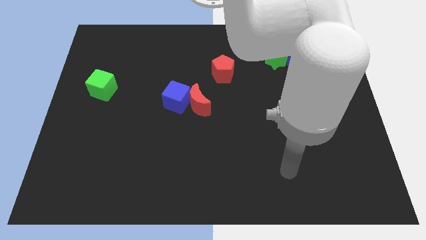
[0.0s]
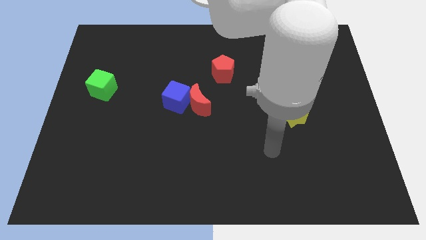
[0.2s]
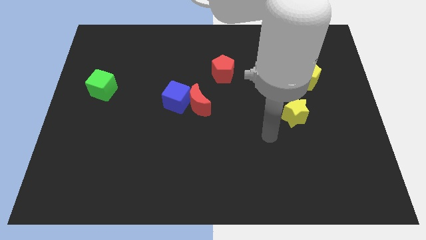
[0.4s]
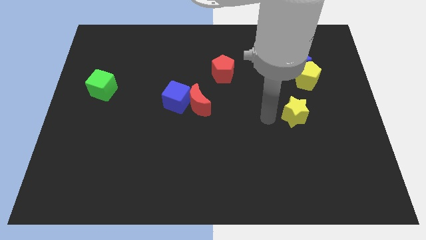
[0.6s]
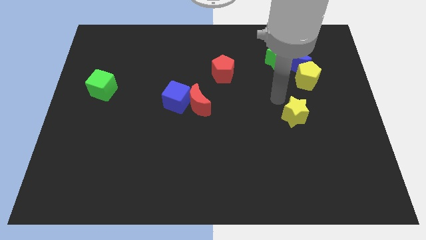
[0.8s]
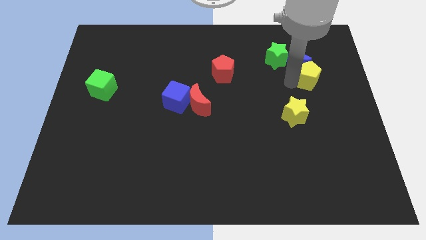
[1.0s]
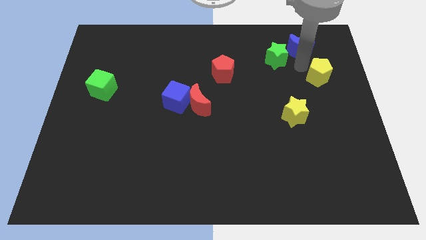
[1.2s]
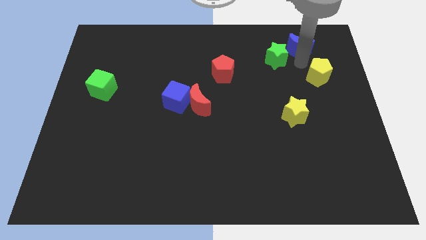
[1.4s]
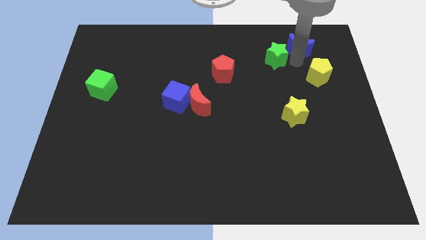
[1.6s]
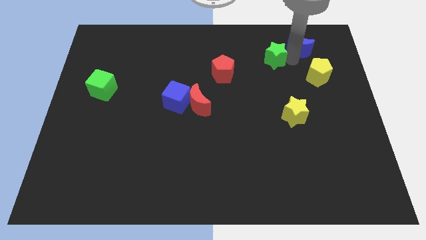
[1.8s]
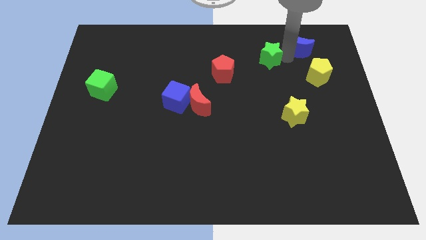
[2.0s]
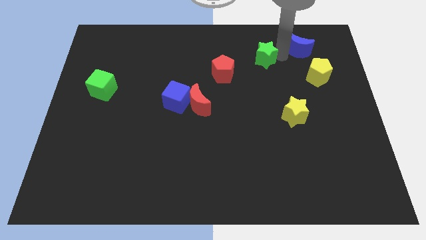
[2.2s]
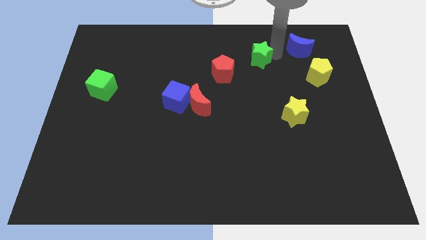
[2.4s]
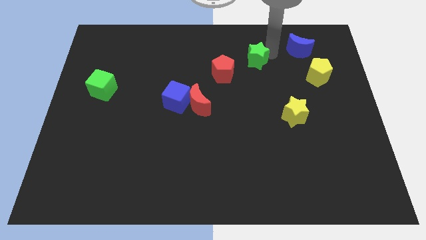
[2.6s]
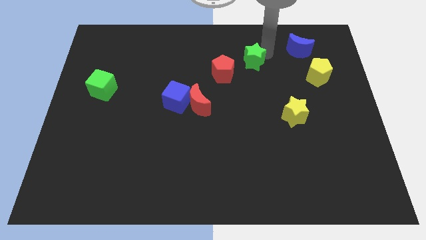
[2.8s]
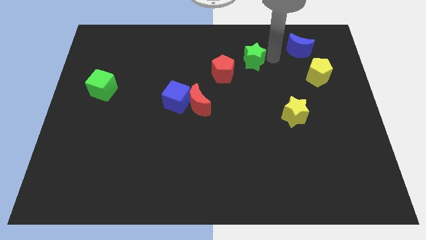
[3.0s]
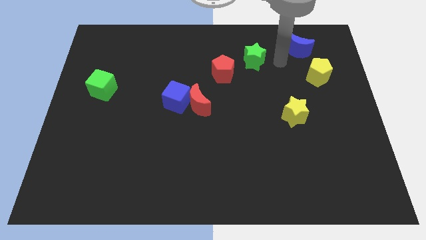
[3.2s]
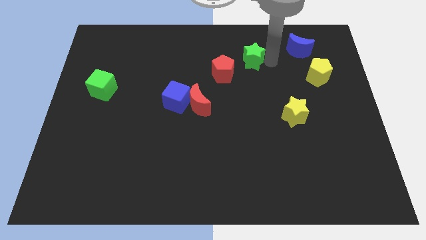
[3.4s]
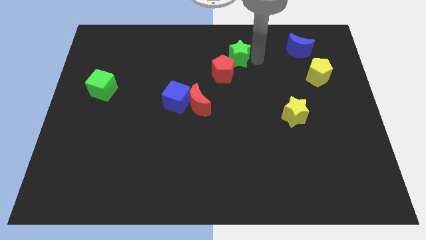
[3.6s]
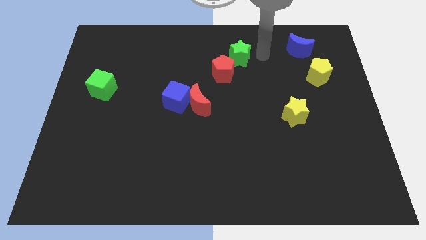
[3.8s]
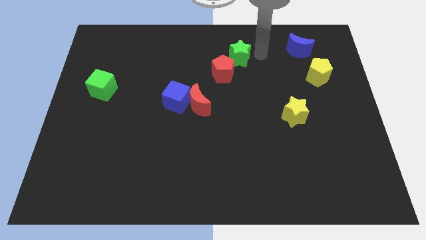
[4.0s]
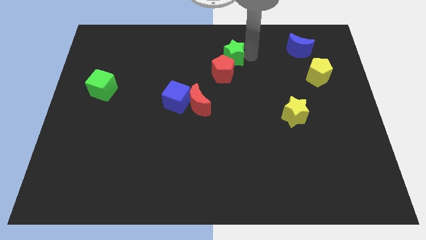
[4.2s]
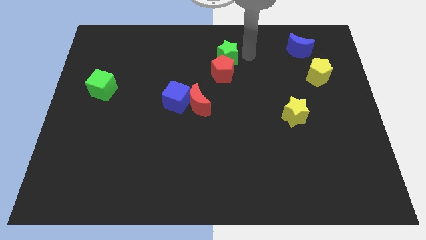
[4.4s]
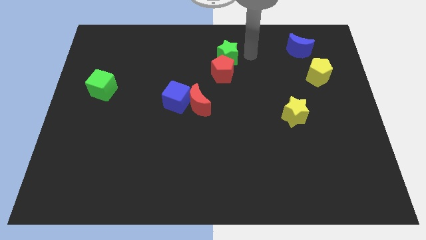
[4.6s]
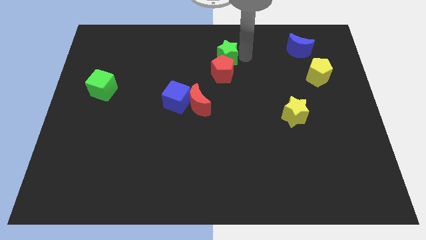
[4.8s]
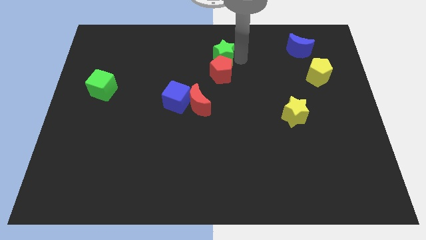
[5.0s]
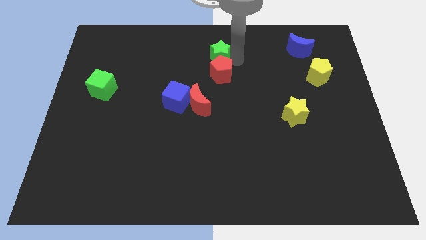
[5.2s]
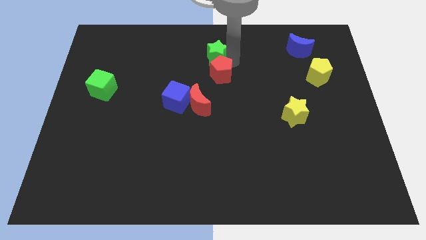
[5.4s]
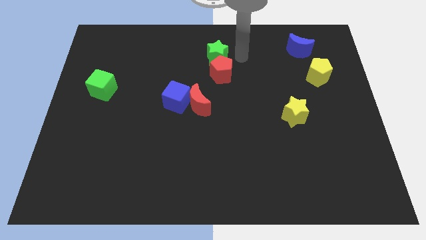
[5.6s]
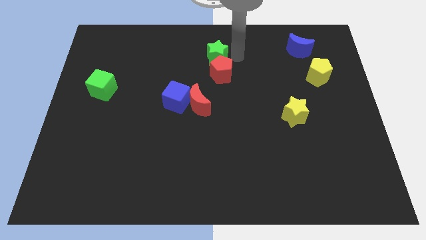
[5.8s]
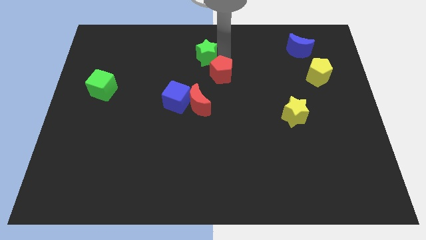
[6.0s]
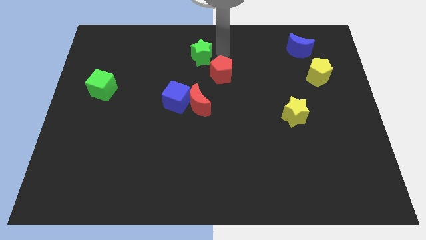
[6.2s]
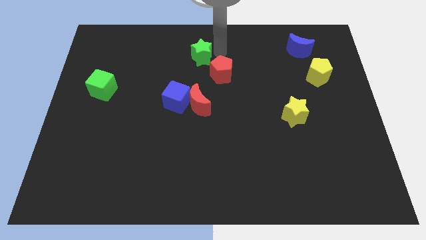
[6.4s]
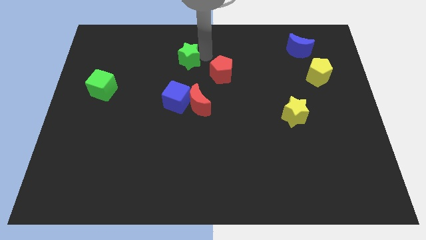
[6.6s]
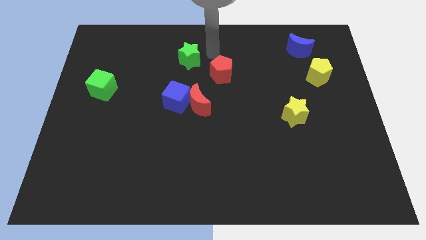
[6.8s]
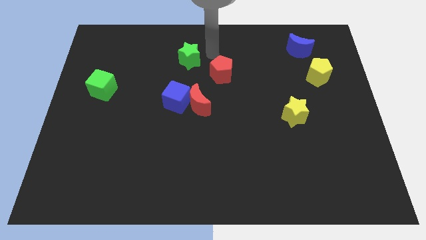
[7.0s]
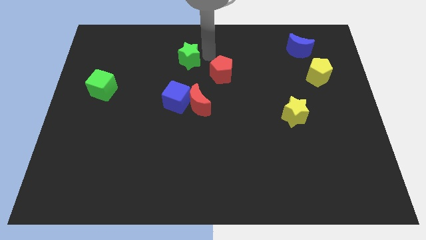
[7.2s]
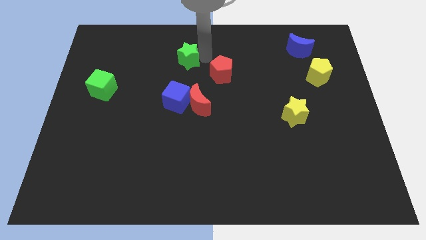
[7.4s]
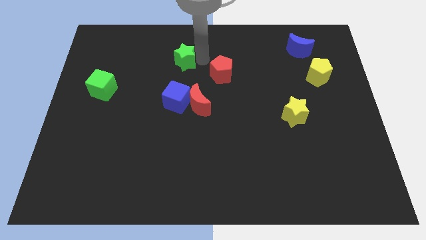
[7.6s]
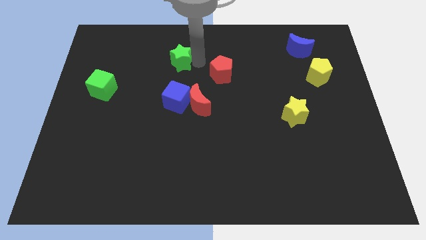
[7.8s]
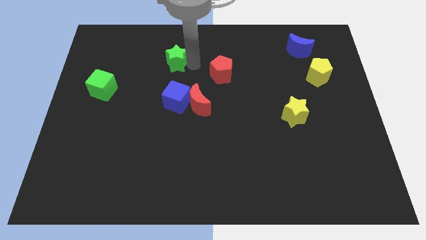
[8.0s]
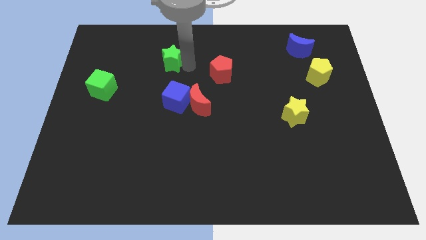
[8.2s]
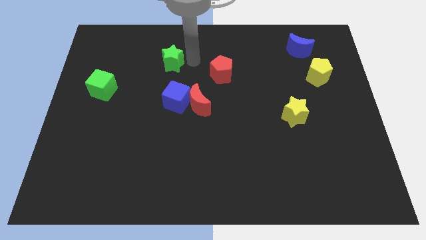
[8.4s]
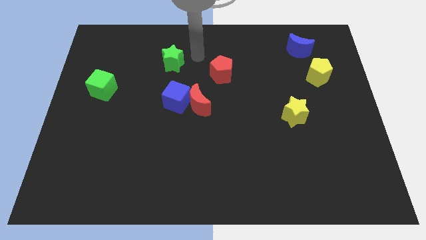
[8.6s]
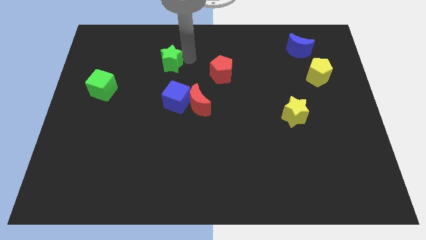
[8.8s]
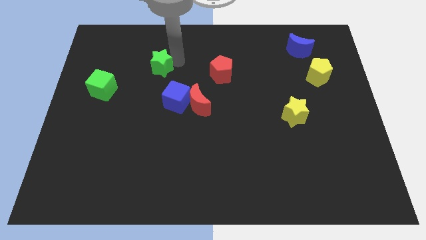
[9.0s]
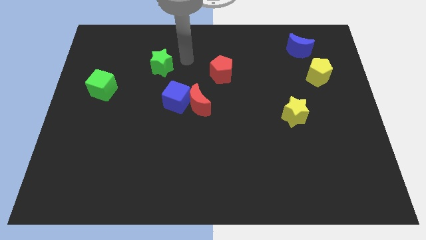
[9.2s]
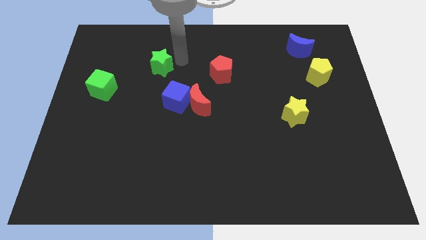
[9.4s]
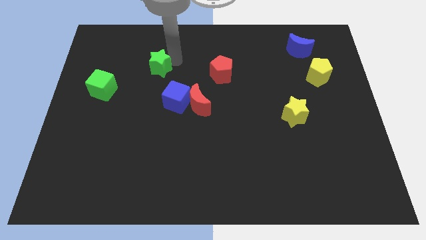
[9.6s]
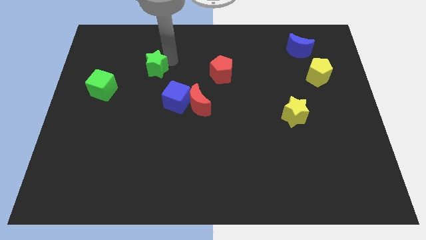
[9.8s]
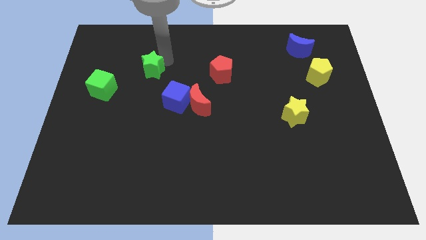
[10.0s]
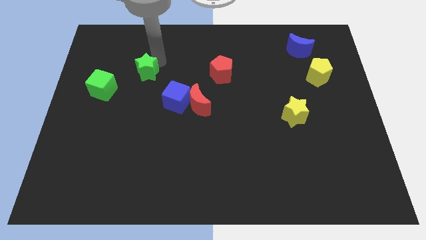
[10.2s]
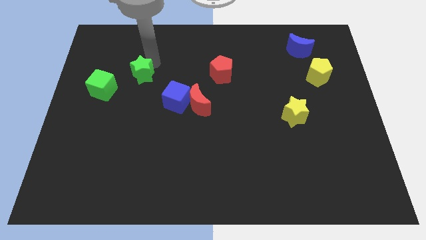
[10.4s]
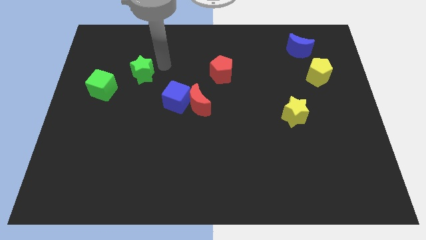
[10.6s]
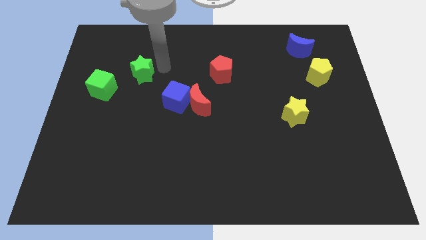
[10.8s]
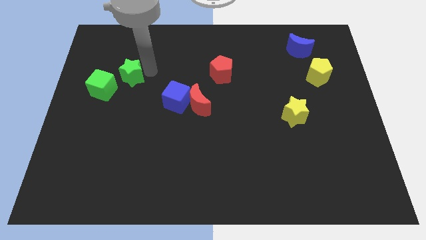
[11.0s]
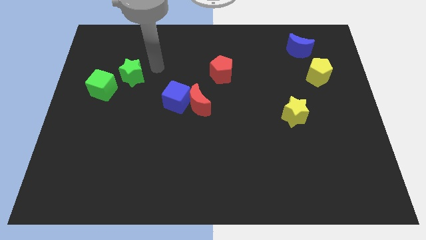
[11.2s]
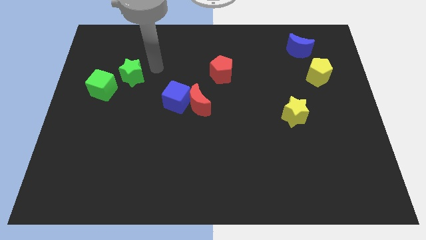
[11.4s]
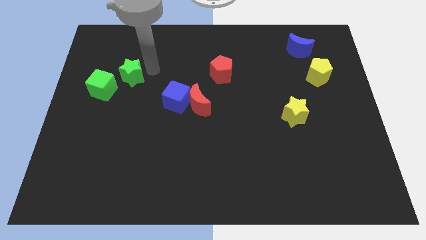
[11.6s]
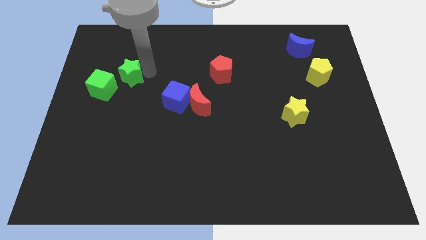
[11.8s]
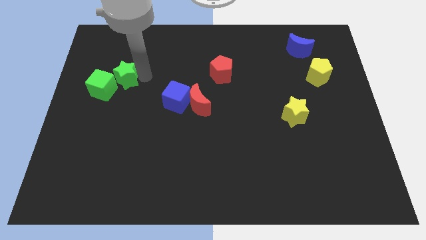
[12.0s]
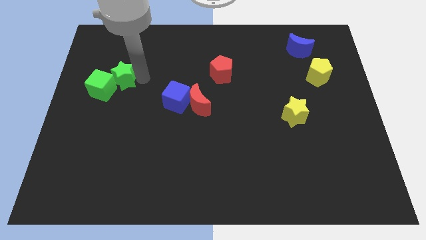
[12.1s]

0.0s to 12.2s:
slide the green star close to the green cube

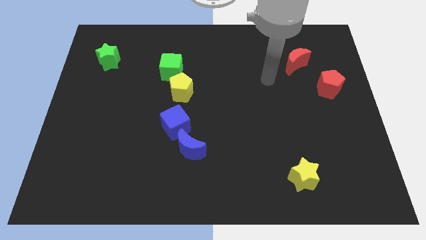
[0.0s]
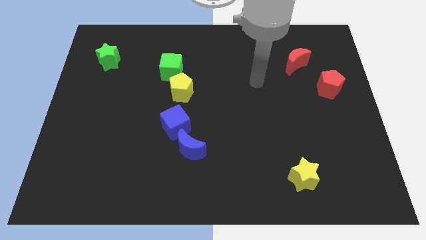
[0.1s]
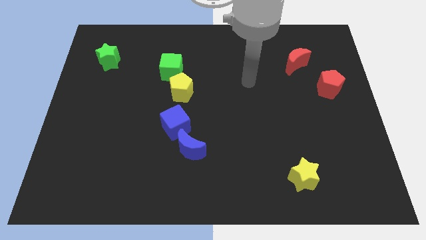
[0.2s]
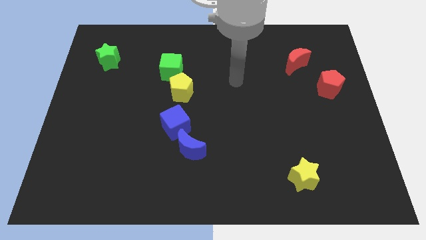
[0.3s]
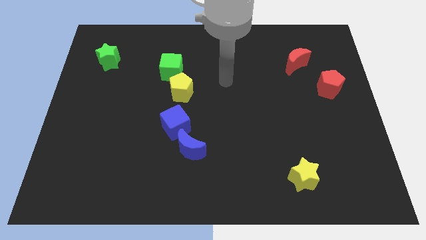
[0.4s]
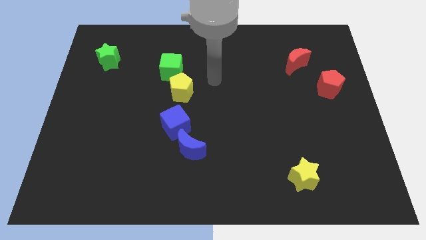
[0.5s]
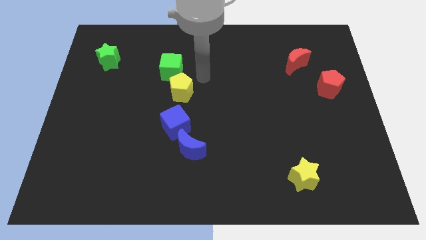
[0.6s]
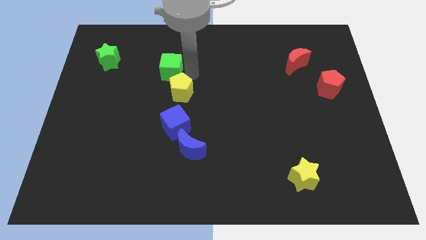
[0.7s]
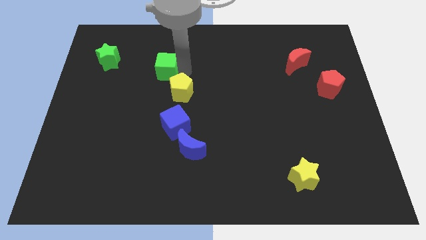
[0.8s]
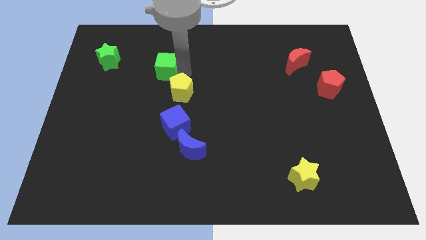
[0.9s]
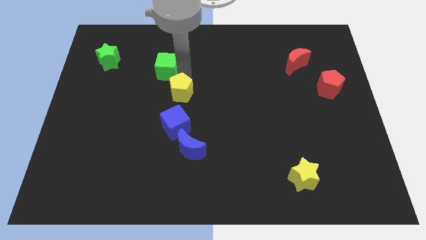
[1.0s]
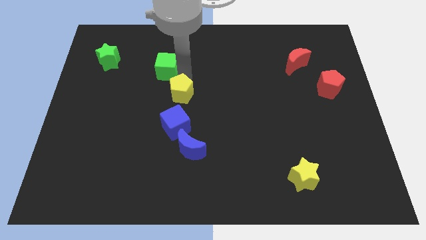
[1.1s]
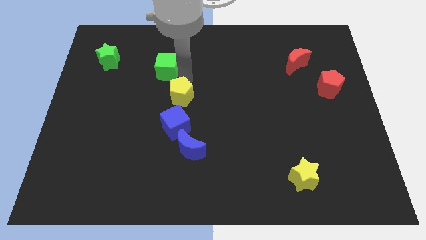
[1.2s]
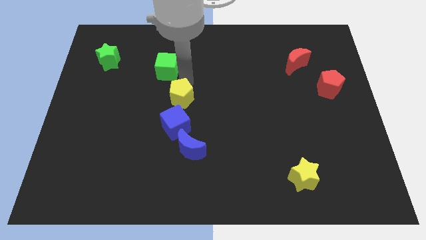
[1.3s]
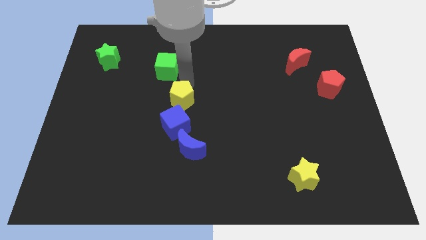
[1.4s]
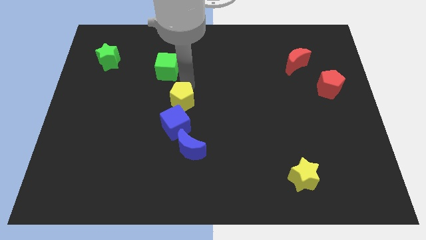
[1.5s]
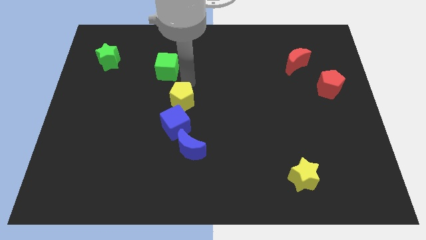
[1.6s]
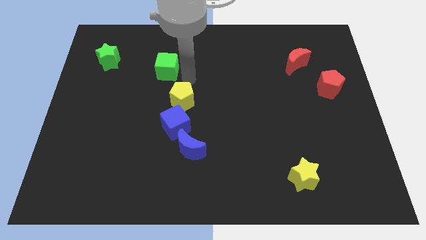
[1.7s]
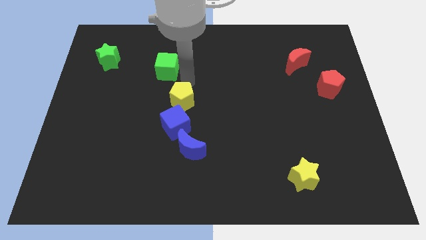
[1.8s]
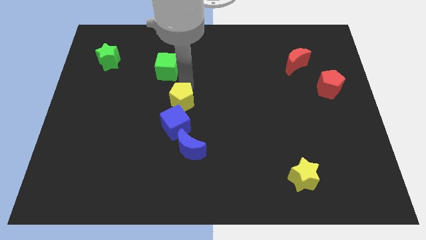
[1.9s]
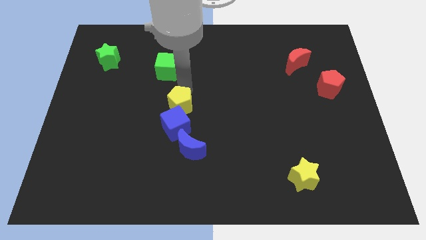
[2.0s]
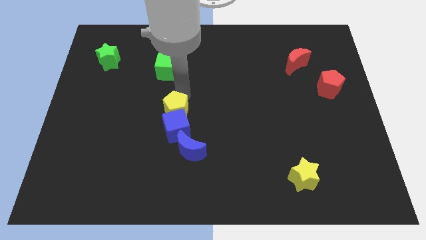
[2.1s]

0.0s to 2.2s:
put the yellow pentagon towards the blue cube
